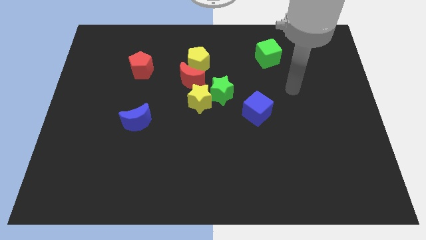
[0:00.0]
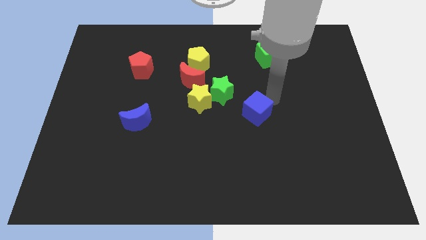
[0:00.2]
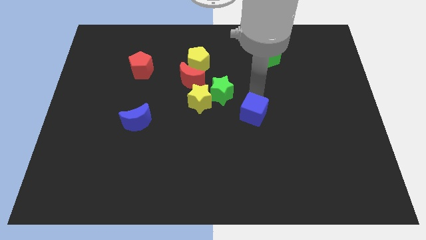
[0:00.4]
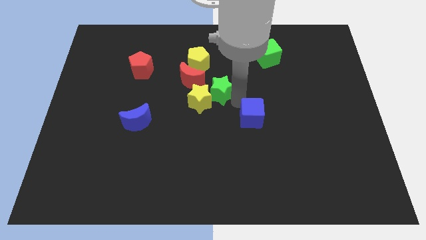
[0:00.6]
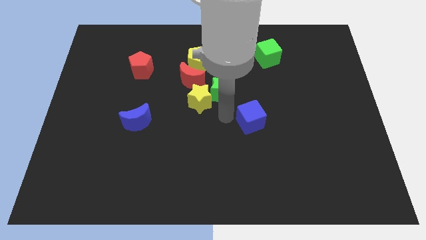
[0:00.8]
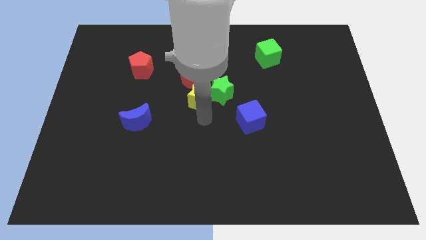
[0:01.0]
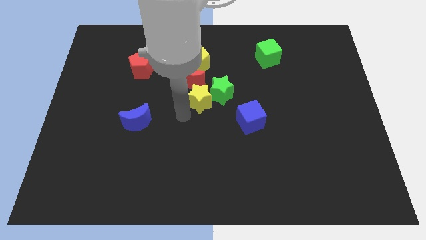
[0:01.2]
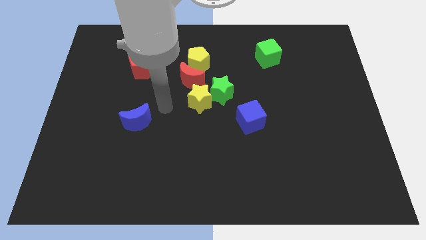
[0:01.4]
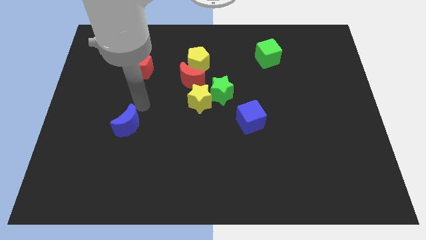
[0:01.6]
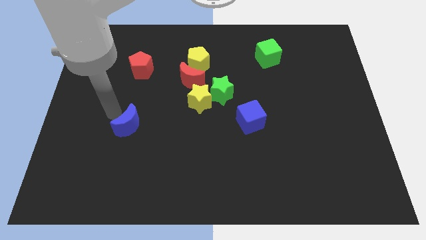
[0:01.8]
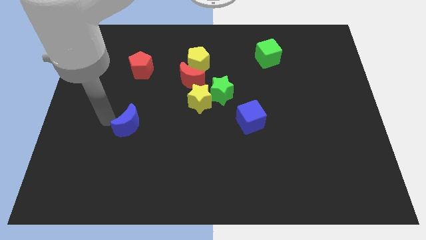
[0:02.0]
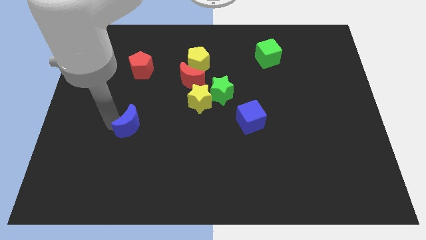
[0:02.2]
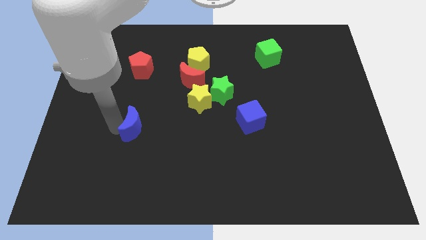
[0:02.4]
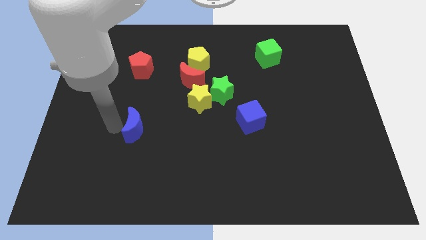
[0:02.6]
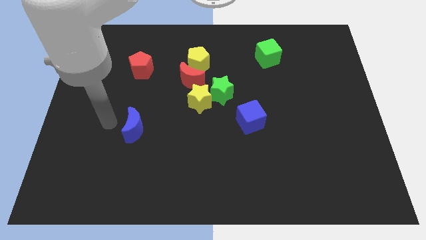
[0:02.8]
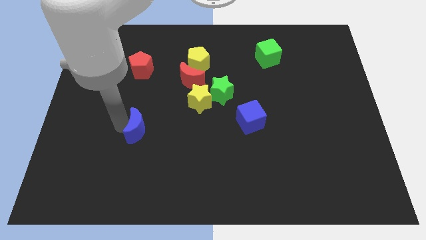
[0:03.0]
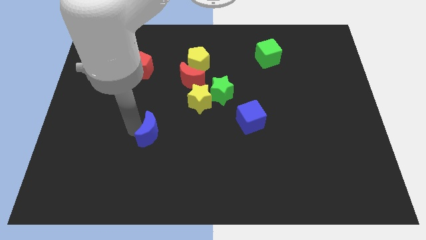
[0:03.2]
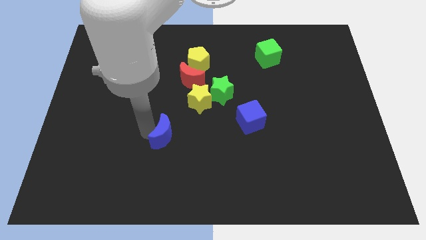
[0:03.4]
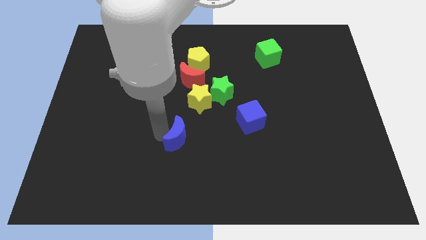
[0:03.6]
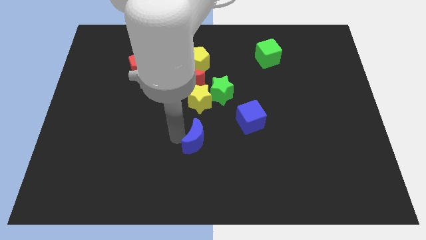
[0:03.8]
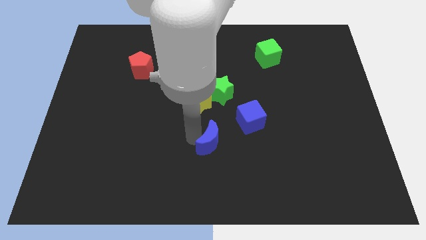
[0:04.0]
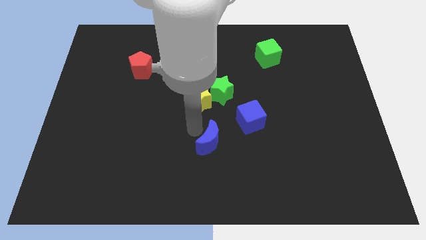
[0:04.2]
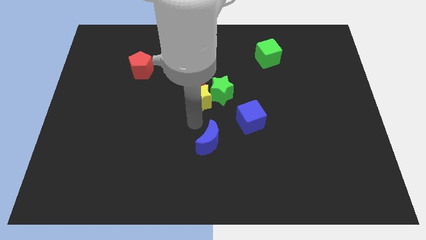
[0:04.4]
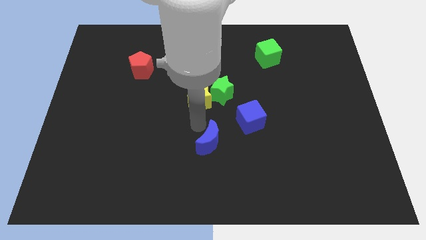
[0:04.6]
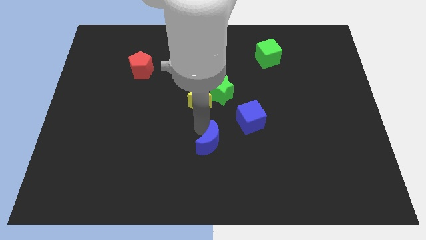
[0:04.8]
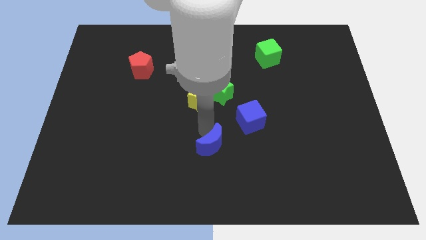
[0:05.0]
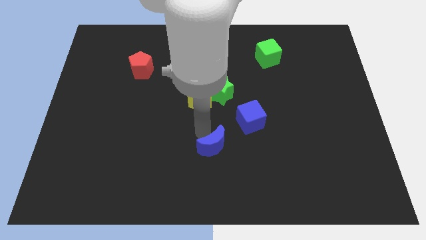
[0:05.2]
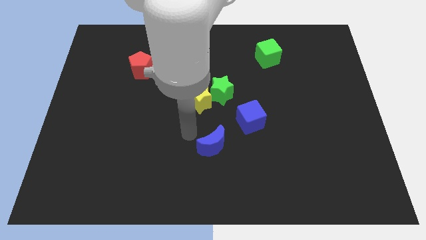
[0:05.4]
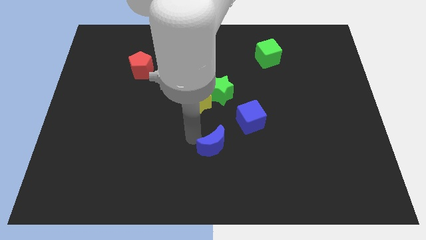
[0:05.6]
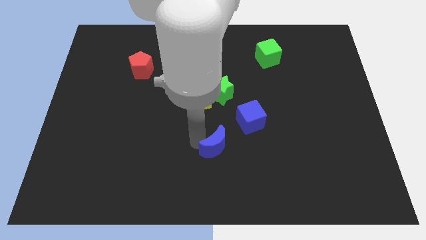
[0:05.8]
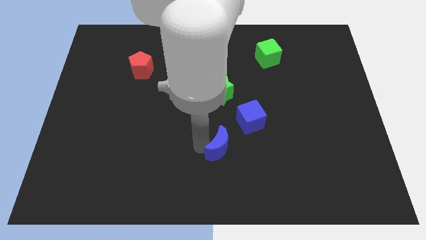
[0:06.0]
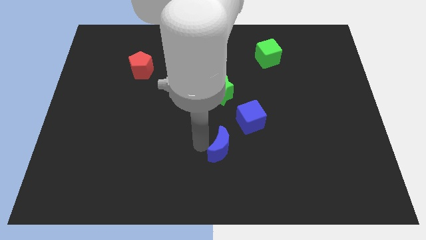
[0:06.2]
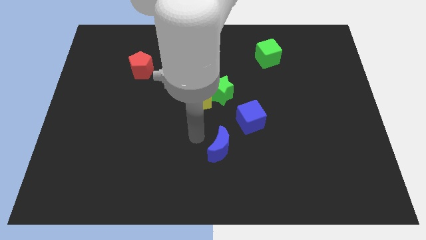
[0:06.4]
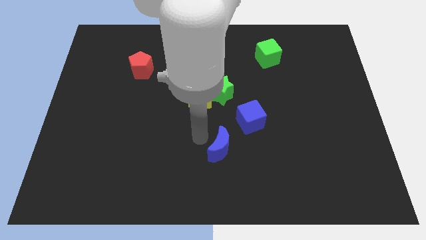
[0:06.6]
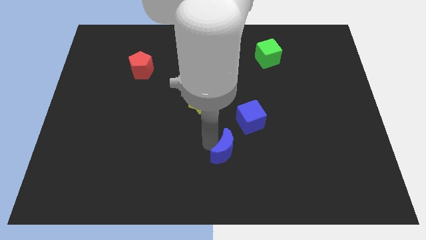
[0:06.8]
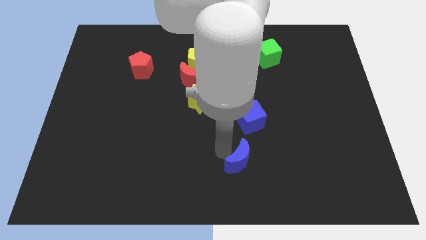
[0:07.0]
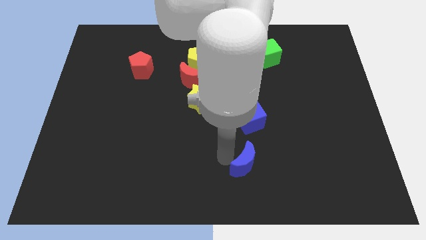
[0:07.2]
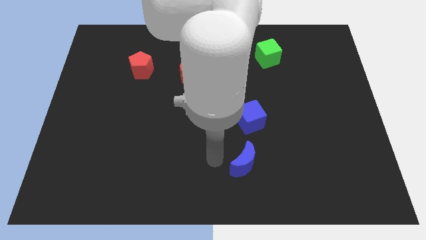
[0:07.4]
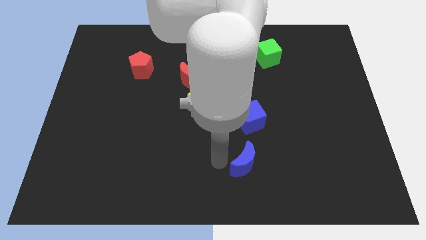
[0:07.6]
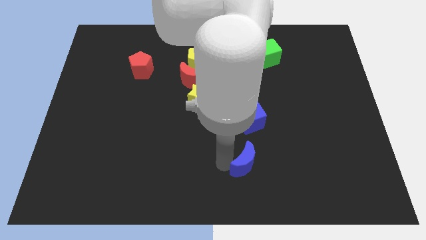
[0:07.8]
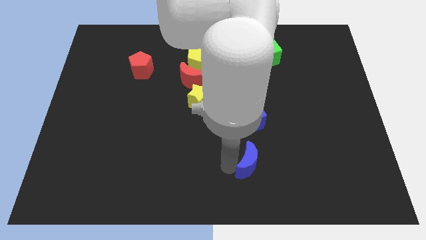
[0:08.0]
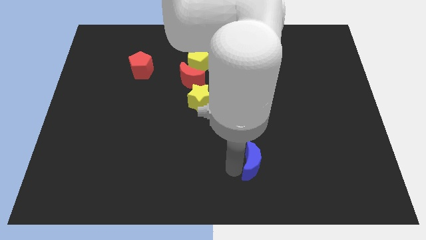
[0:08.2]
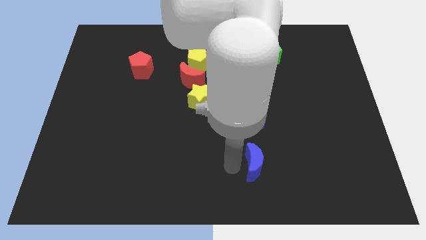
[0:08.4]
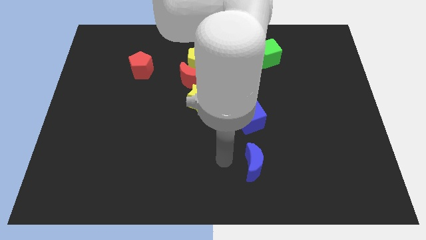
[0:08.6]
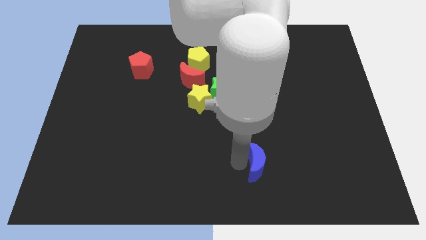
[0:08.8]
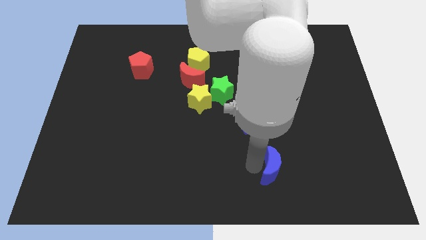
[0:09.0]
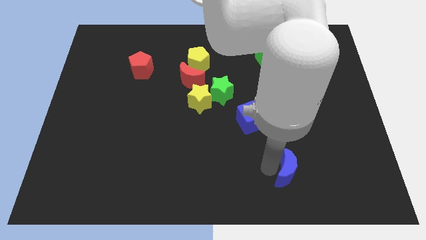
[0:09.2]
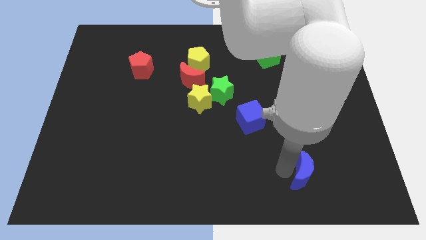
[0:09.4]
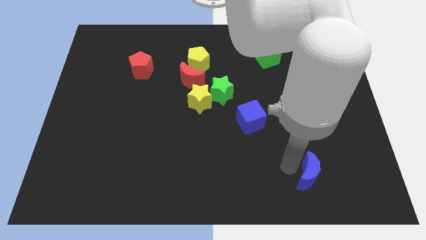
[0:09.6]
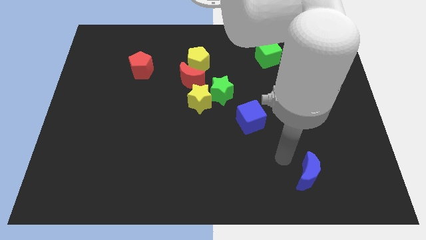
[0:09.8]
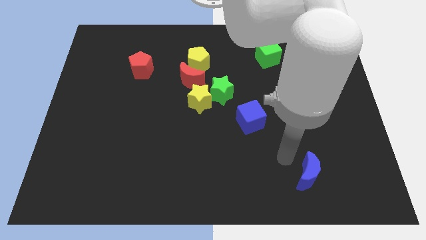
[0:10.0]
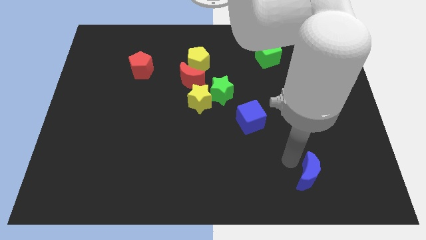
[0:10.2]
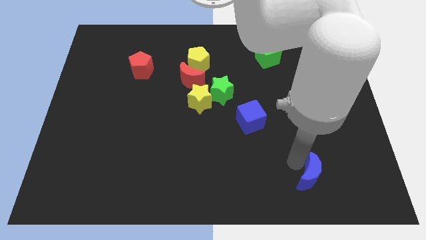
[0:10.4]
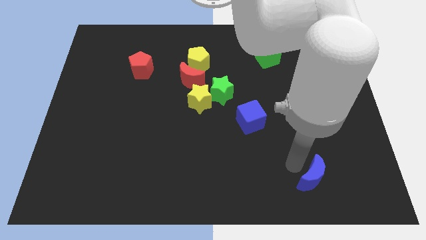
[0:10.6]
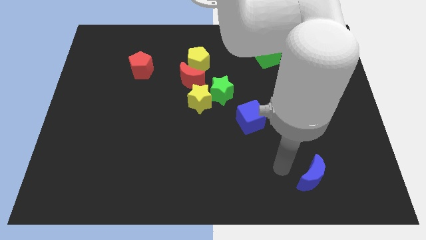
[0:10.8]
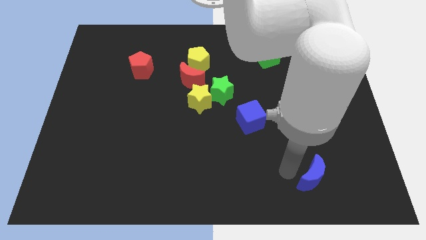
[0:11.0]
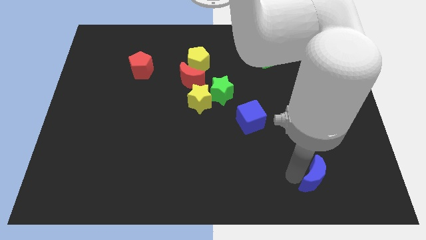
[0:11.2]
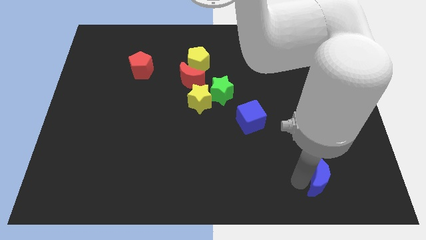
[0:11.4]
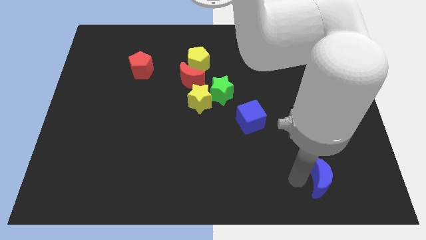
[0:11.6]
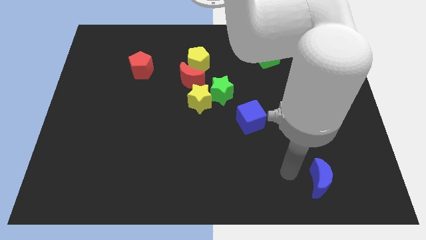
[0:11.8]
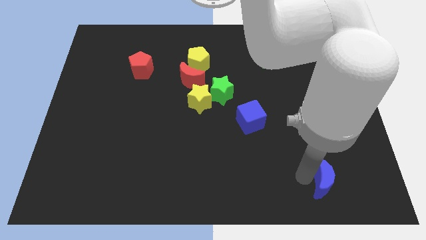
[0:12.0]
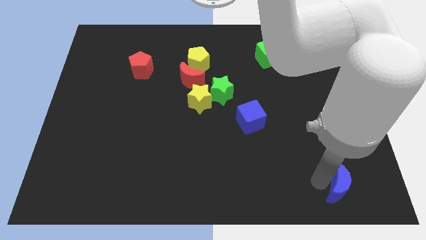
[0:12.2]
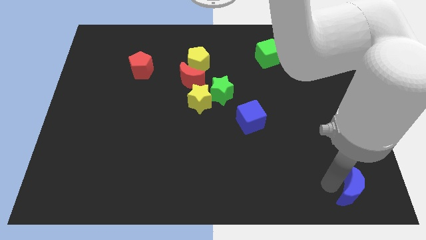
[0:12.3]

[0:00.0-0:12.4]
slide the blue moon to the bottom right corner

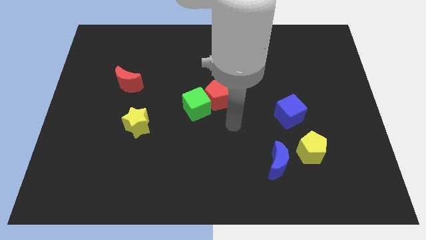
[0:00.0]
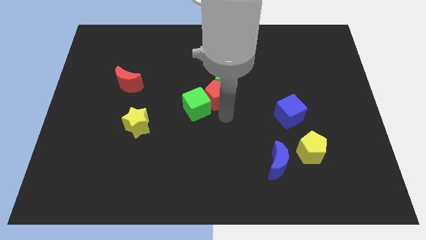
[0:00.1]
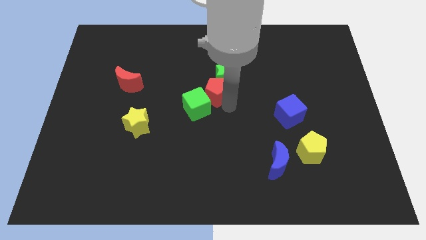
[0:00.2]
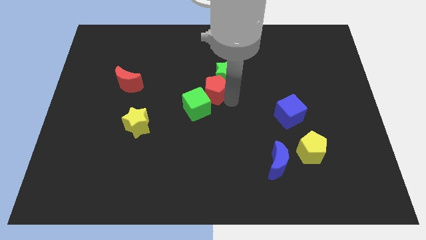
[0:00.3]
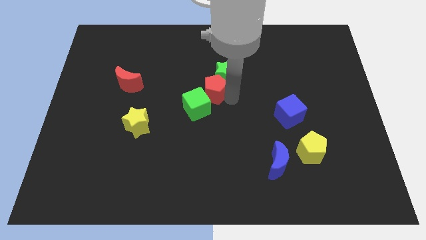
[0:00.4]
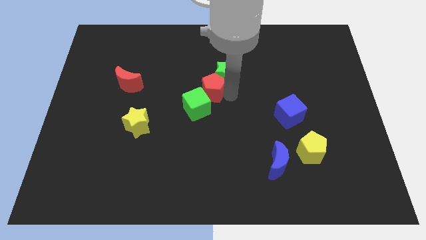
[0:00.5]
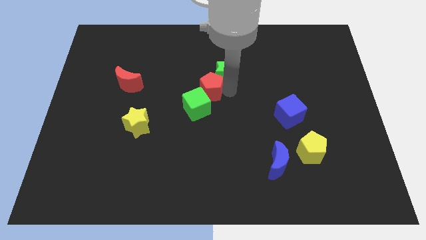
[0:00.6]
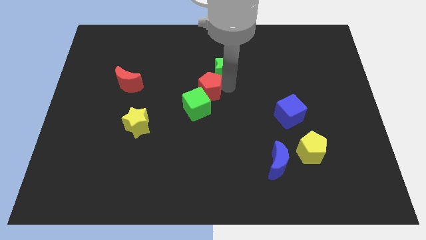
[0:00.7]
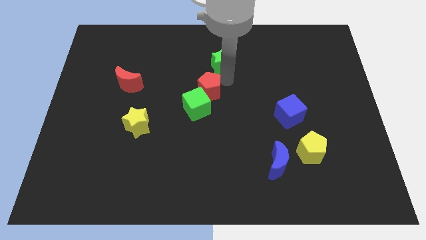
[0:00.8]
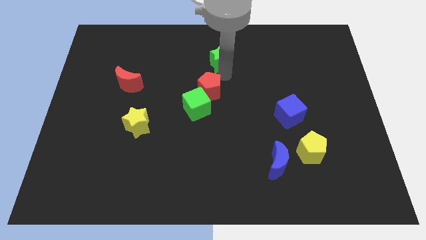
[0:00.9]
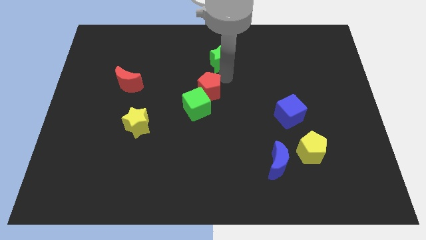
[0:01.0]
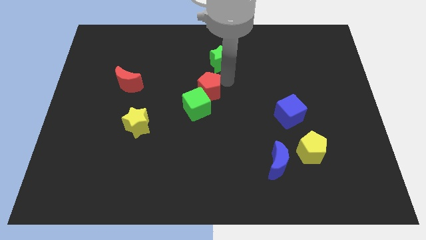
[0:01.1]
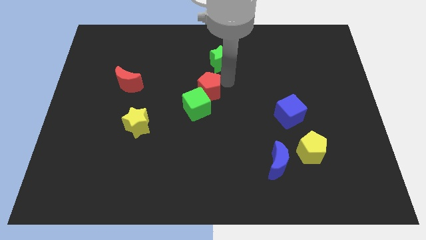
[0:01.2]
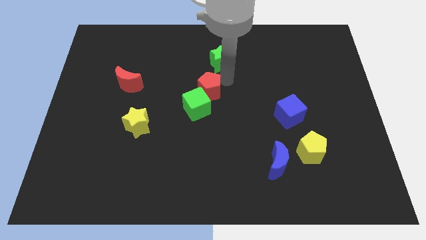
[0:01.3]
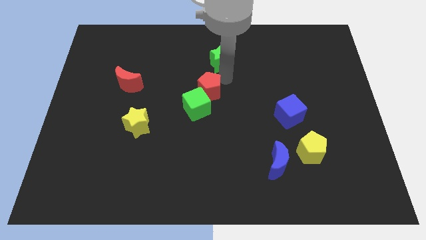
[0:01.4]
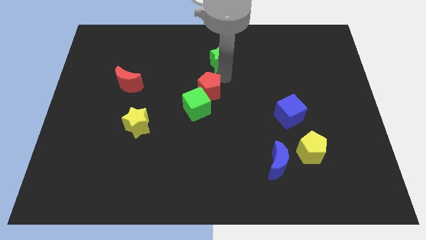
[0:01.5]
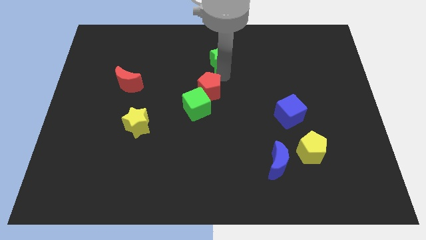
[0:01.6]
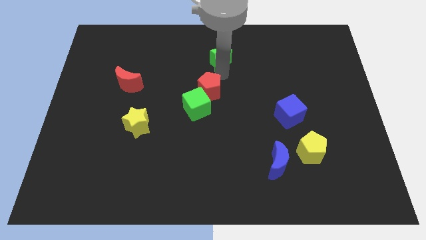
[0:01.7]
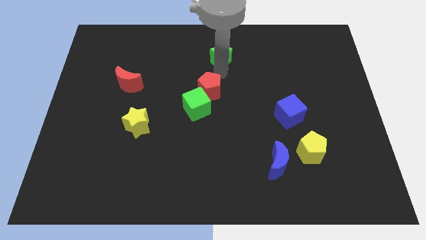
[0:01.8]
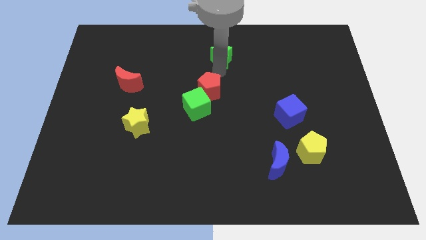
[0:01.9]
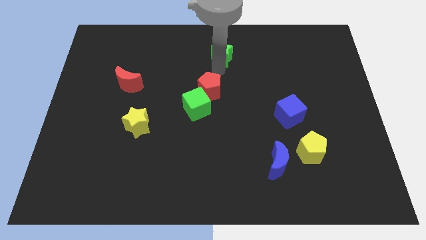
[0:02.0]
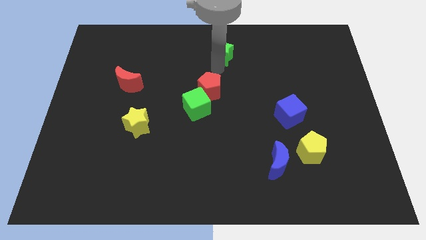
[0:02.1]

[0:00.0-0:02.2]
move the green star to the towards your base
